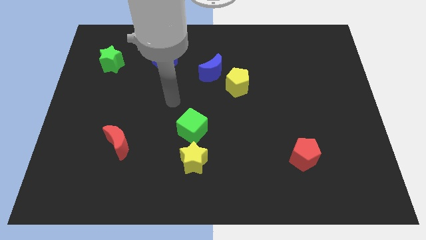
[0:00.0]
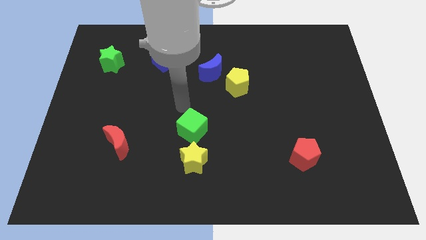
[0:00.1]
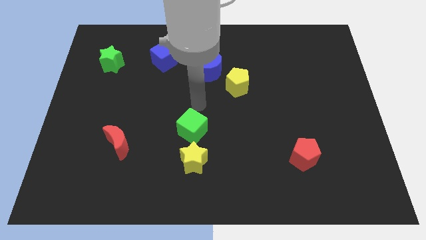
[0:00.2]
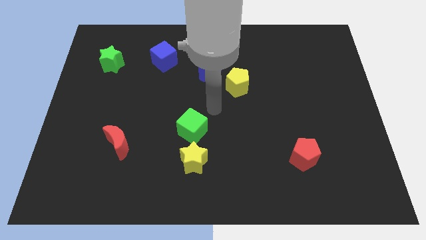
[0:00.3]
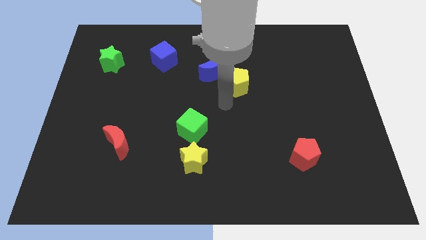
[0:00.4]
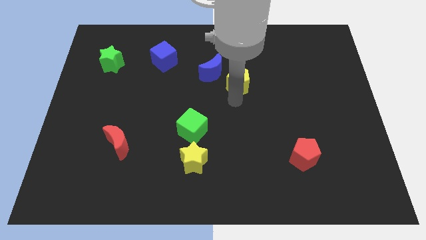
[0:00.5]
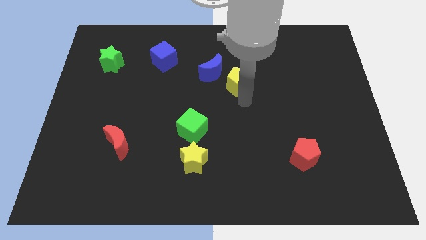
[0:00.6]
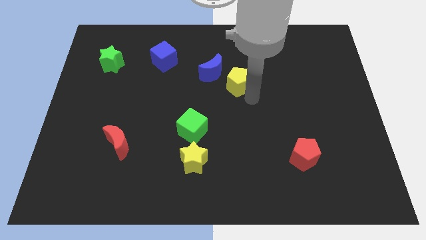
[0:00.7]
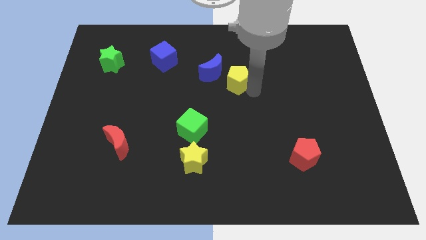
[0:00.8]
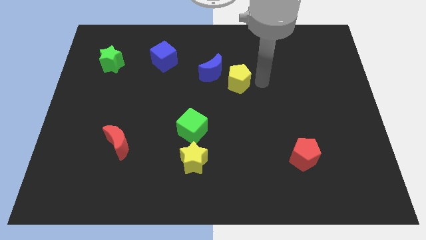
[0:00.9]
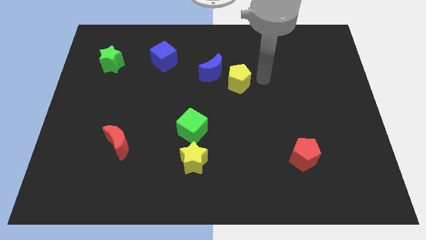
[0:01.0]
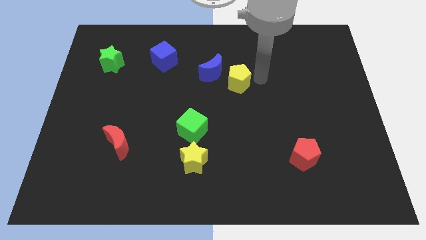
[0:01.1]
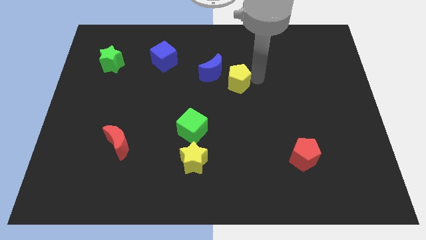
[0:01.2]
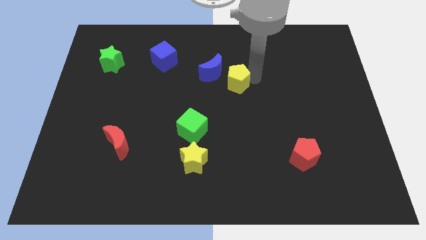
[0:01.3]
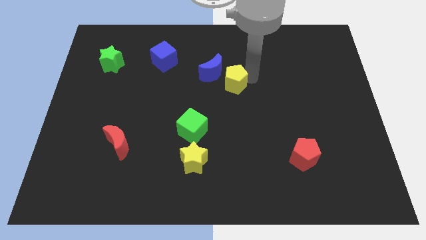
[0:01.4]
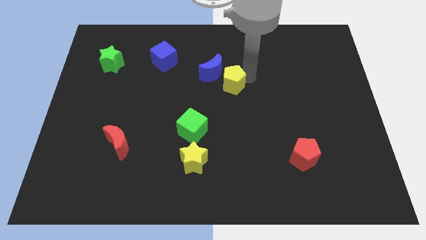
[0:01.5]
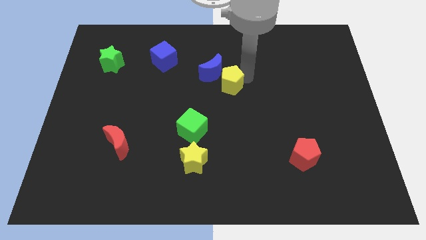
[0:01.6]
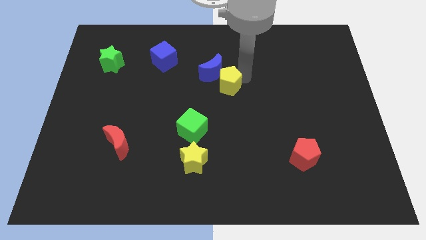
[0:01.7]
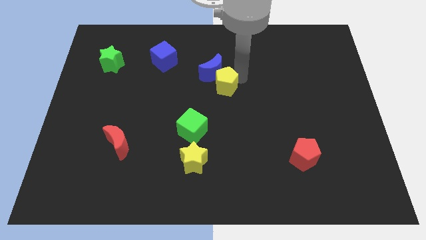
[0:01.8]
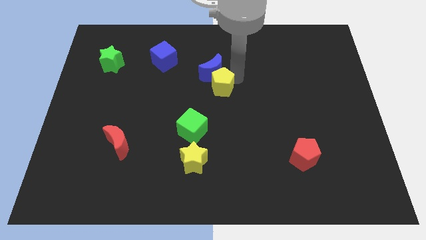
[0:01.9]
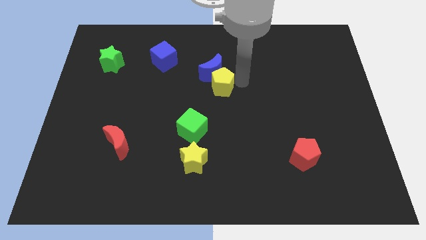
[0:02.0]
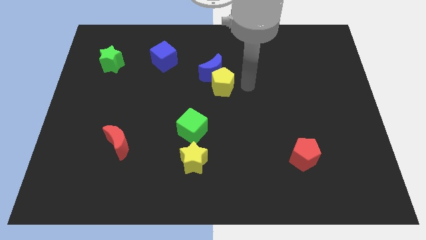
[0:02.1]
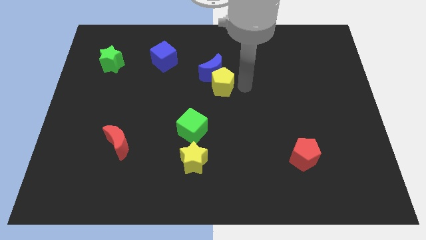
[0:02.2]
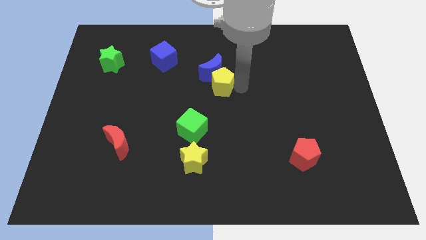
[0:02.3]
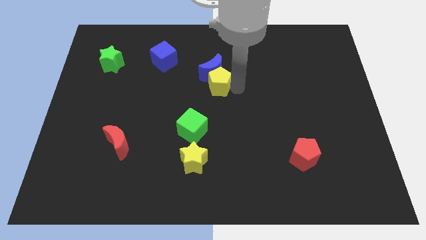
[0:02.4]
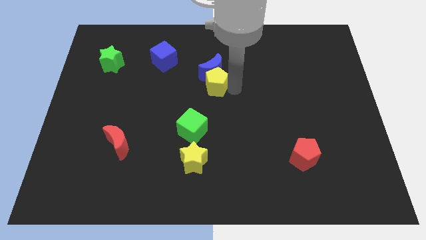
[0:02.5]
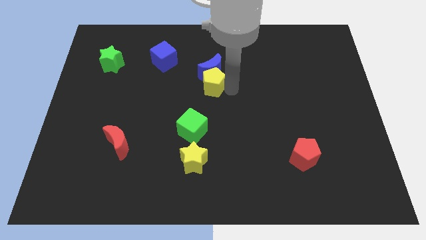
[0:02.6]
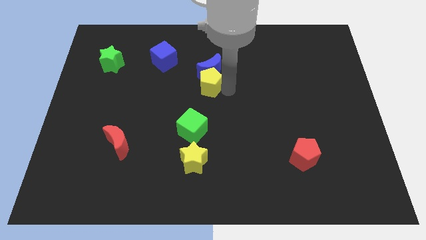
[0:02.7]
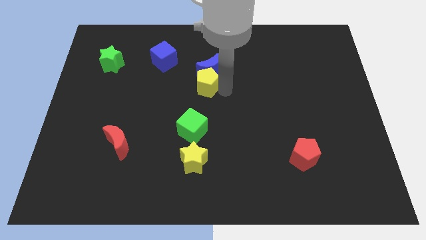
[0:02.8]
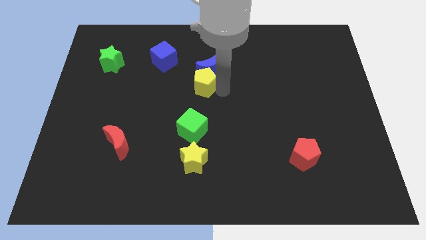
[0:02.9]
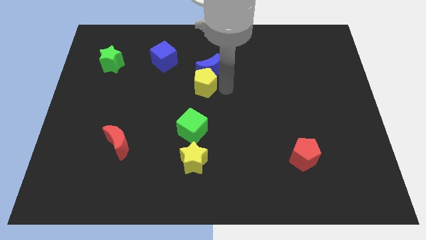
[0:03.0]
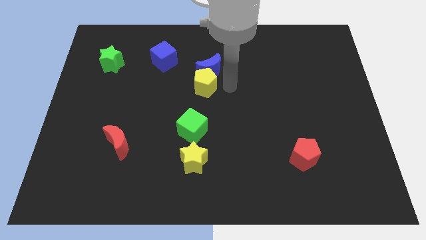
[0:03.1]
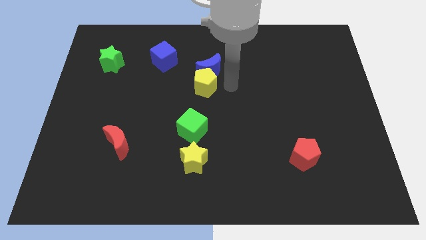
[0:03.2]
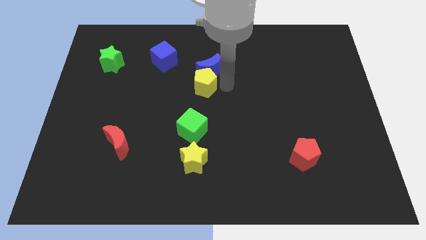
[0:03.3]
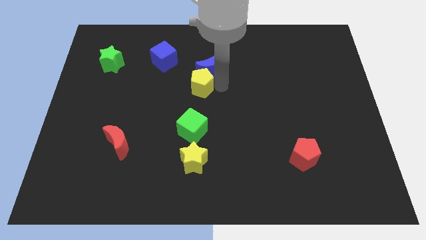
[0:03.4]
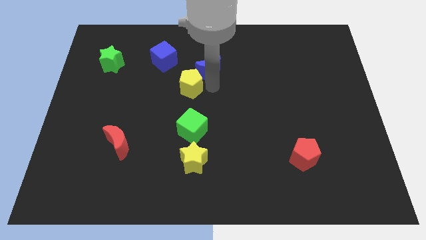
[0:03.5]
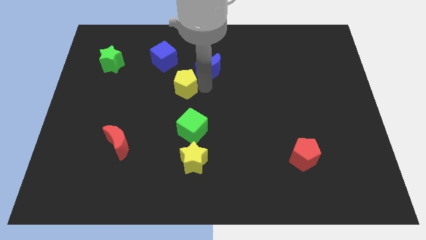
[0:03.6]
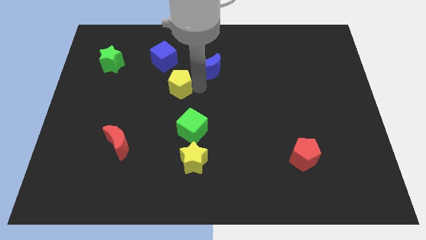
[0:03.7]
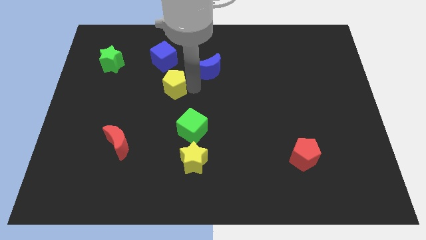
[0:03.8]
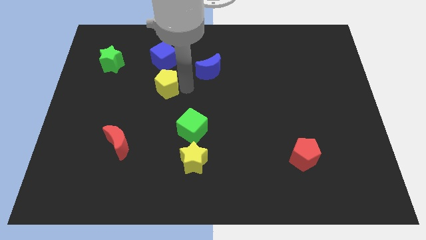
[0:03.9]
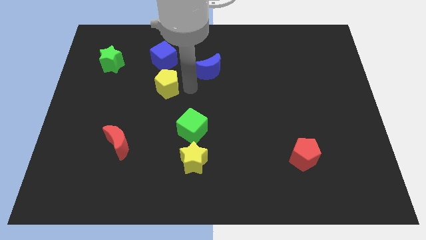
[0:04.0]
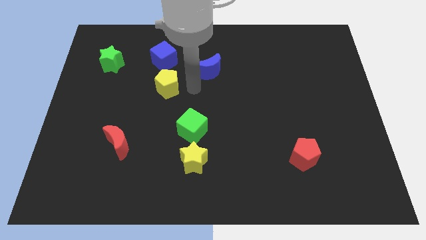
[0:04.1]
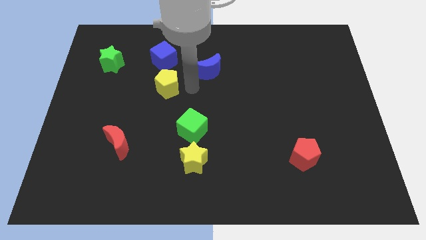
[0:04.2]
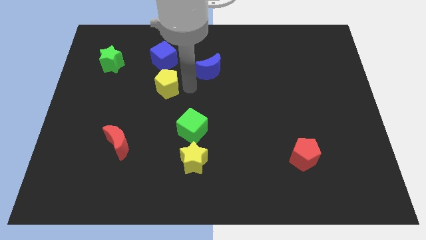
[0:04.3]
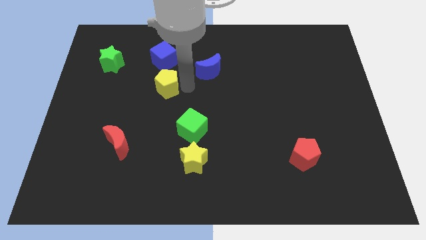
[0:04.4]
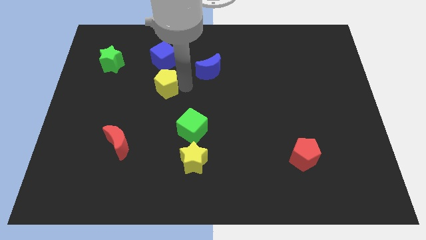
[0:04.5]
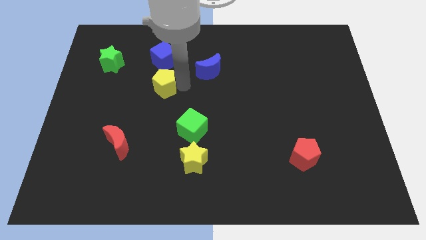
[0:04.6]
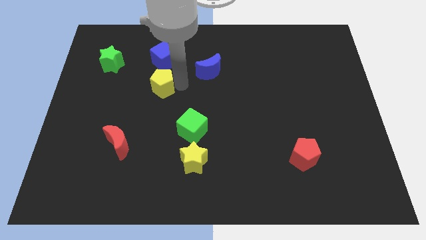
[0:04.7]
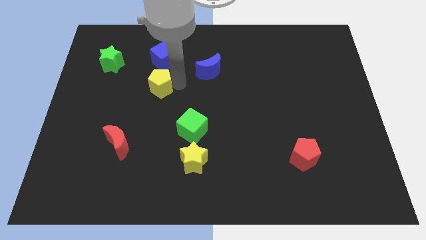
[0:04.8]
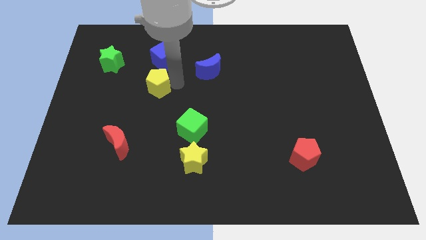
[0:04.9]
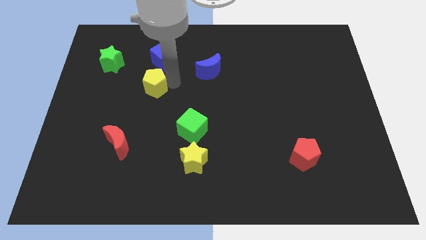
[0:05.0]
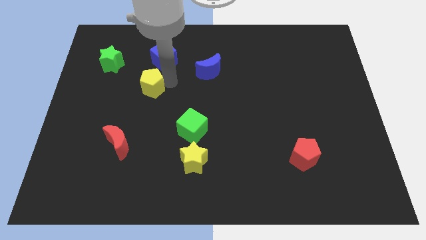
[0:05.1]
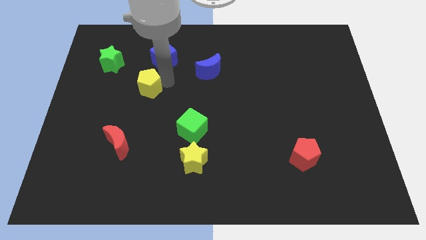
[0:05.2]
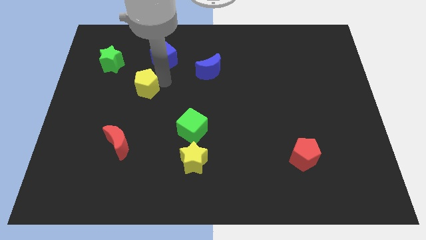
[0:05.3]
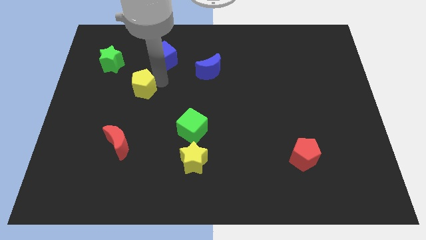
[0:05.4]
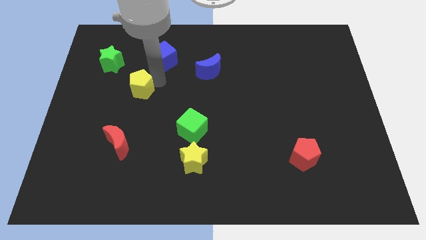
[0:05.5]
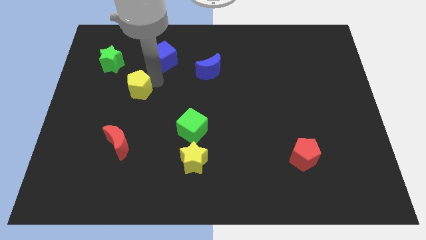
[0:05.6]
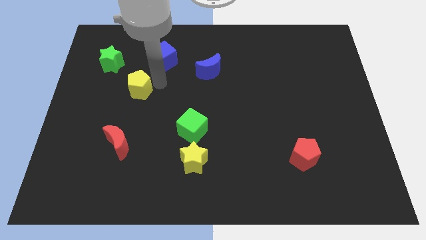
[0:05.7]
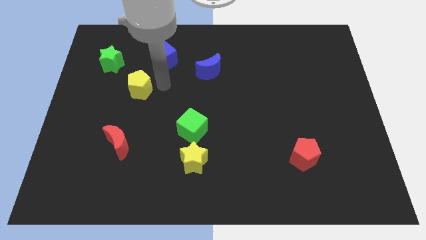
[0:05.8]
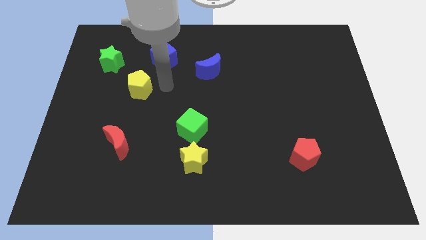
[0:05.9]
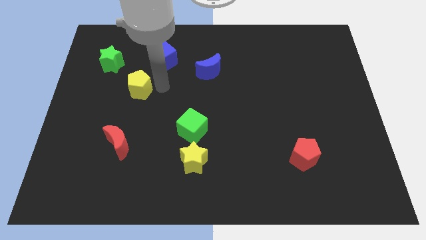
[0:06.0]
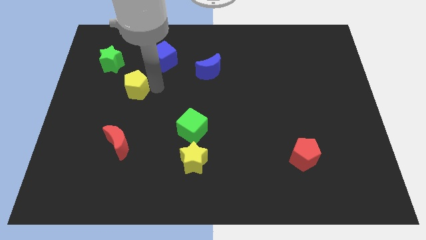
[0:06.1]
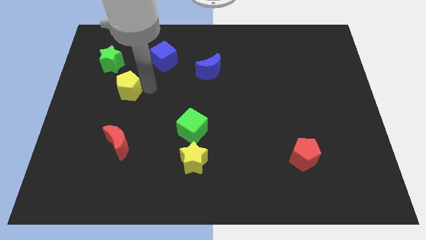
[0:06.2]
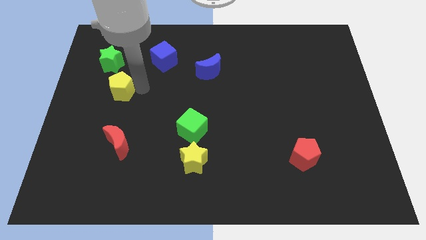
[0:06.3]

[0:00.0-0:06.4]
move the yellow pentagon to the bottom of the green star

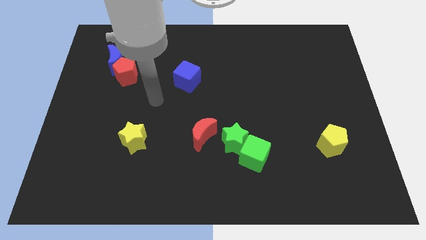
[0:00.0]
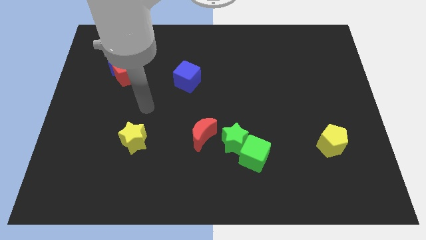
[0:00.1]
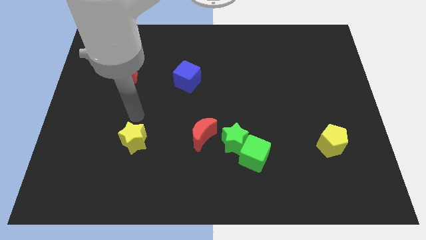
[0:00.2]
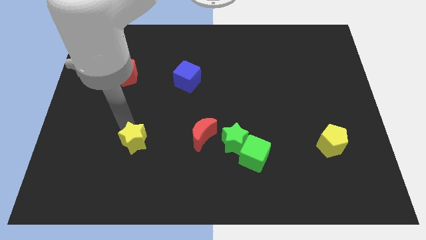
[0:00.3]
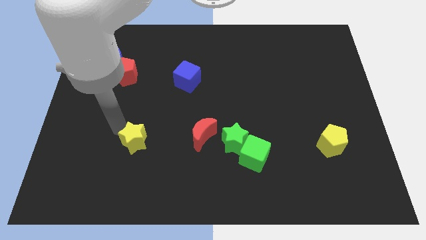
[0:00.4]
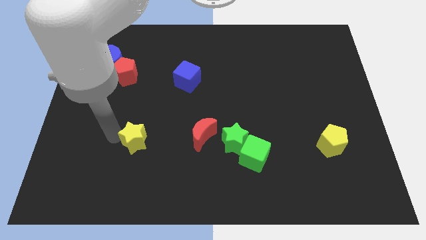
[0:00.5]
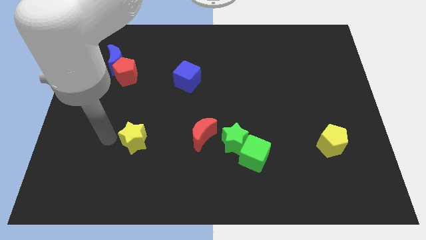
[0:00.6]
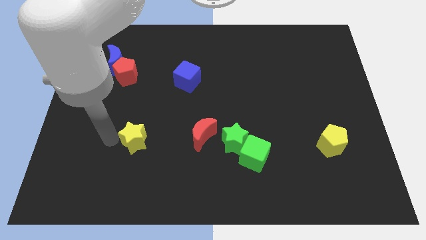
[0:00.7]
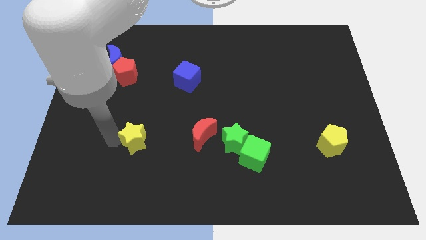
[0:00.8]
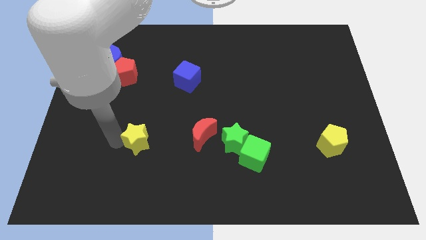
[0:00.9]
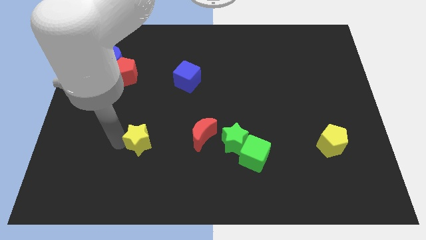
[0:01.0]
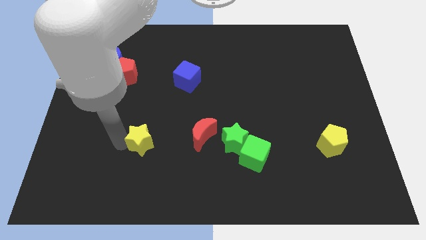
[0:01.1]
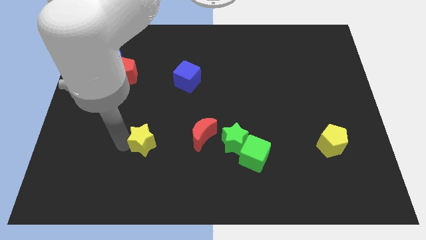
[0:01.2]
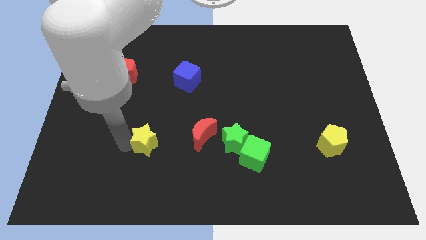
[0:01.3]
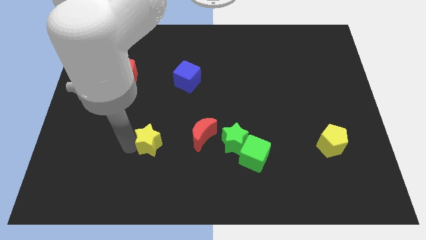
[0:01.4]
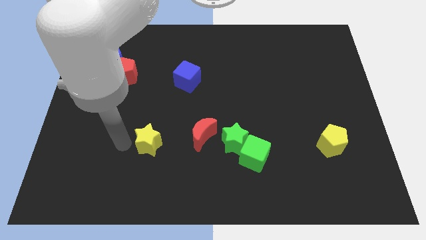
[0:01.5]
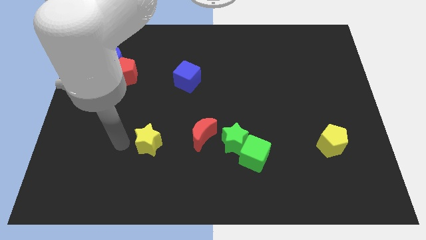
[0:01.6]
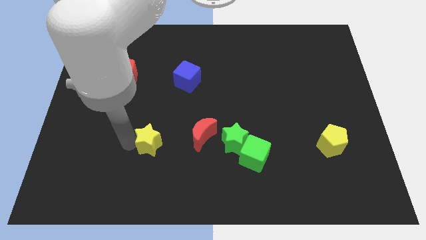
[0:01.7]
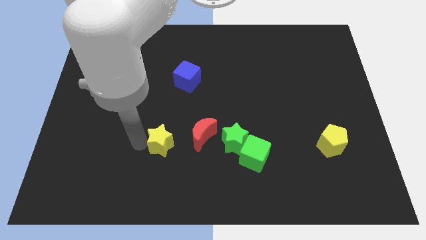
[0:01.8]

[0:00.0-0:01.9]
put the yellow star to the left side of the green star
